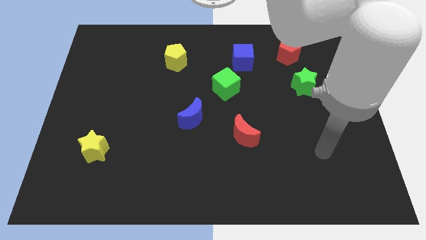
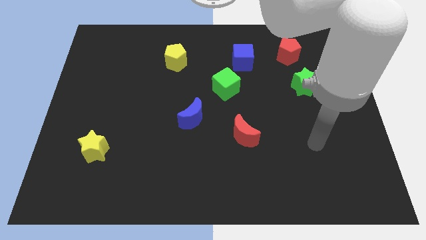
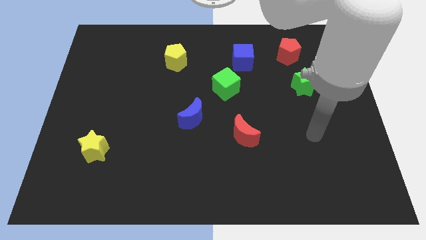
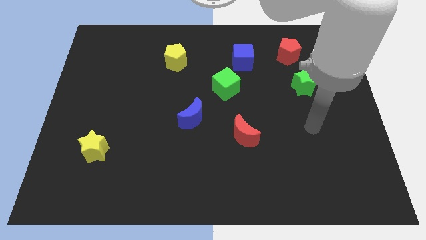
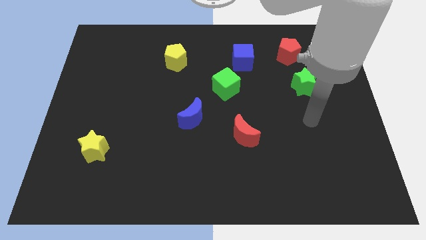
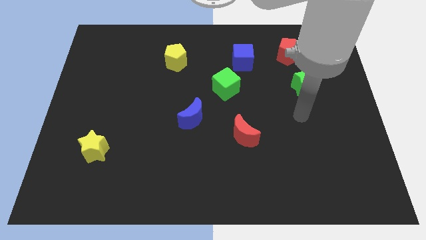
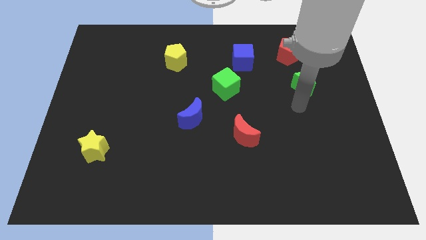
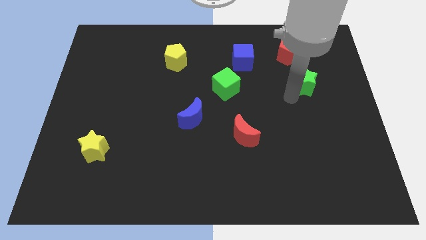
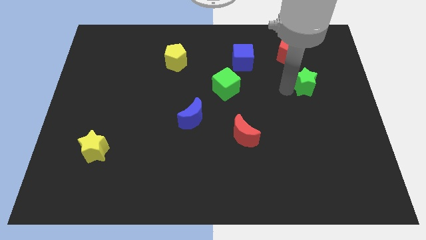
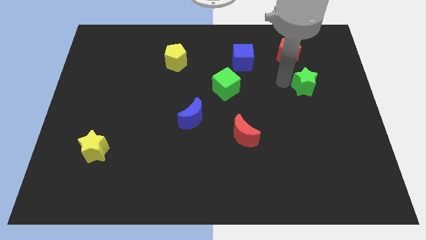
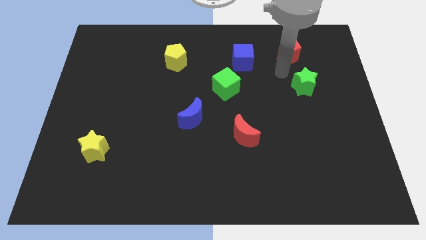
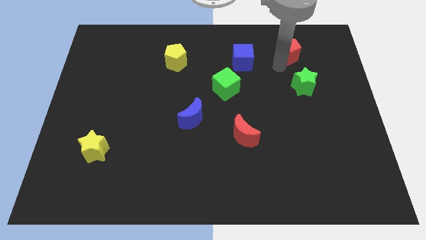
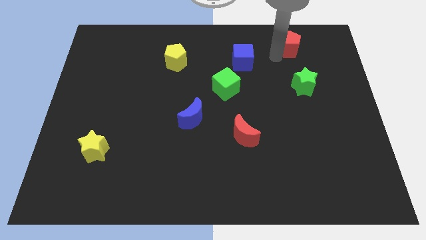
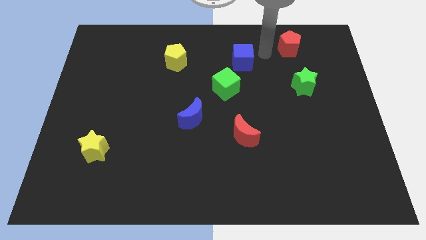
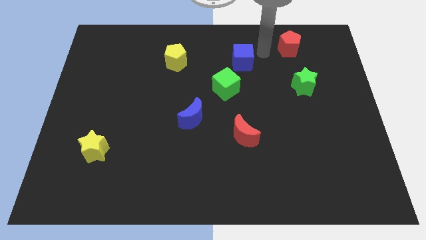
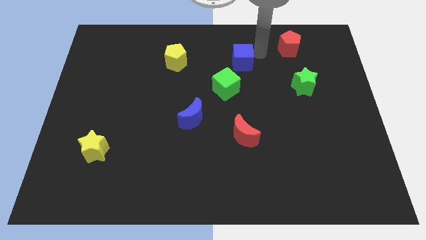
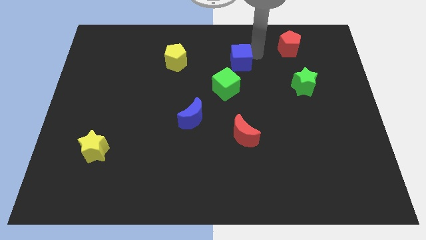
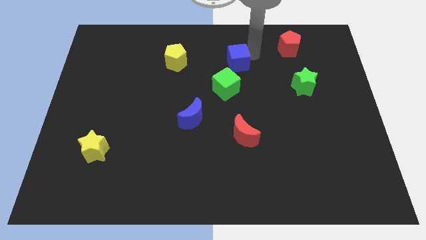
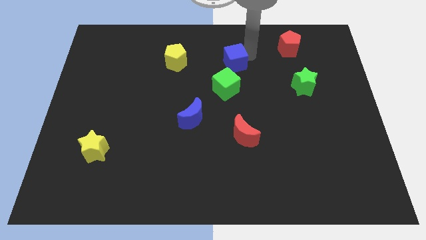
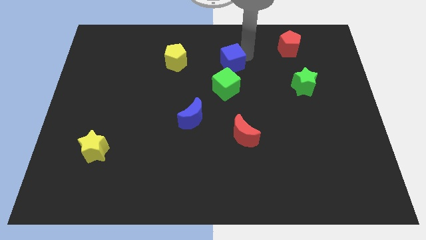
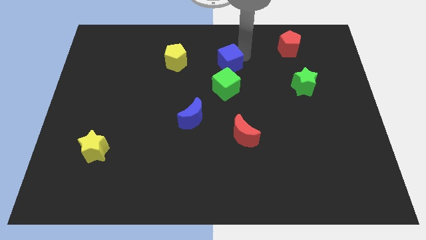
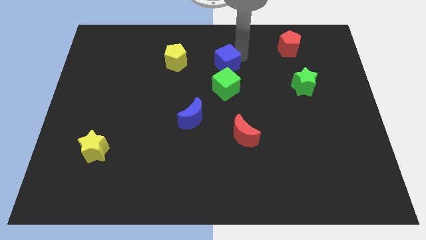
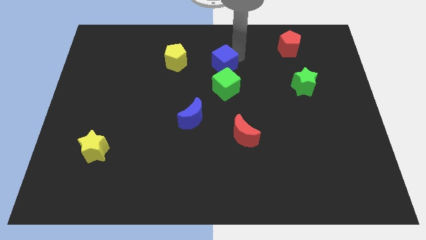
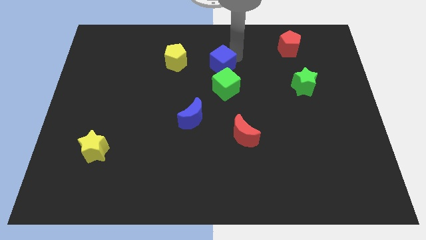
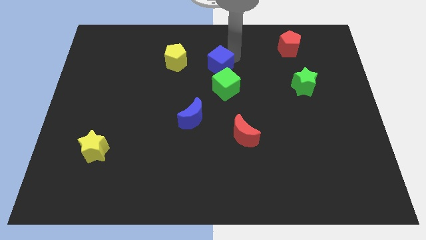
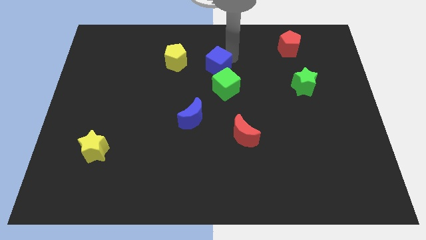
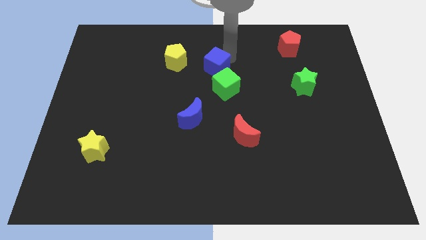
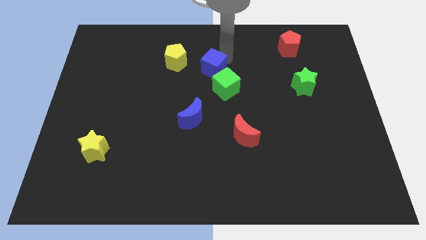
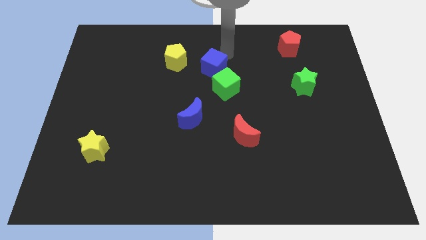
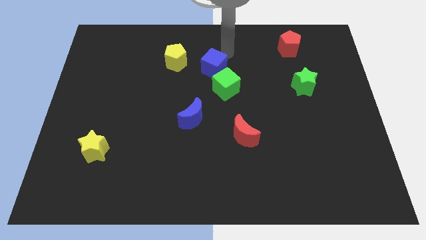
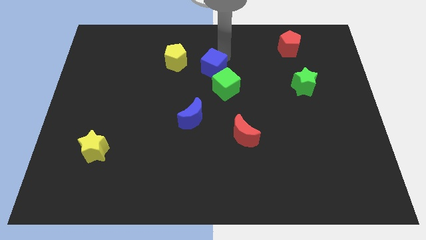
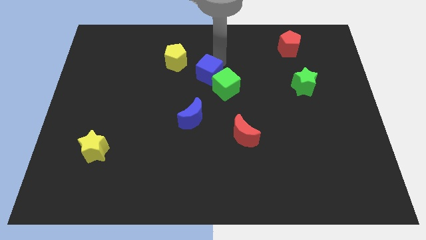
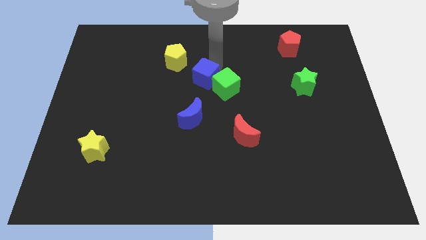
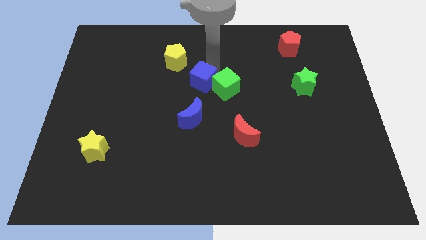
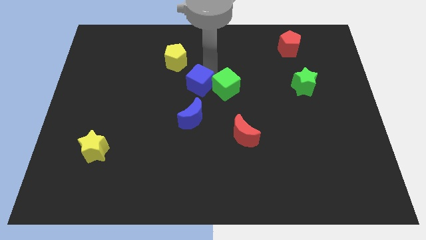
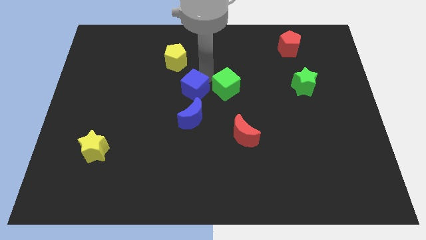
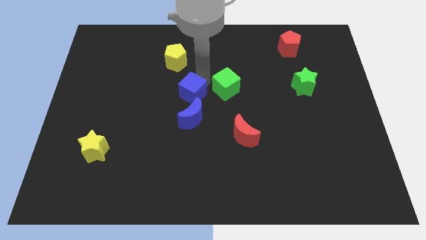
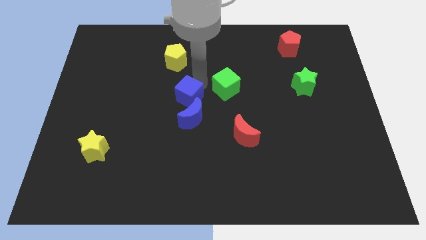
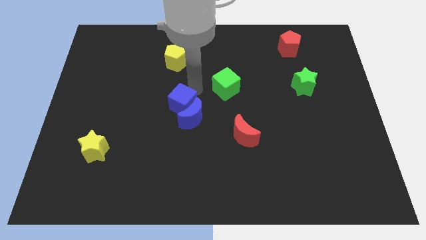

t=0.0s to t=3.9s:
move the blue cube downwards and then to the left

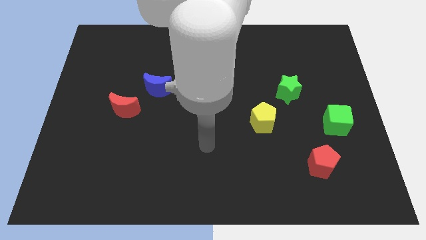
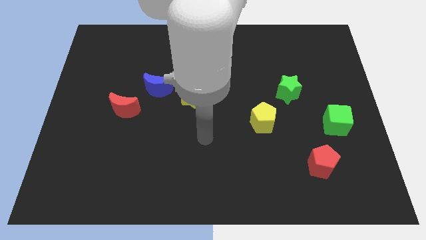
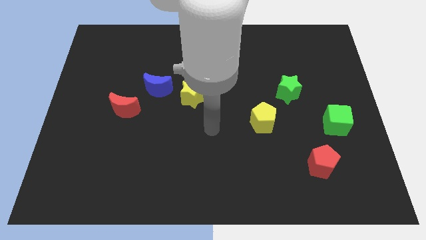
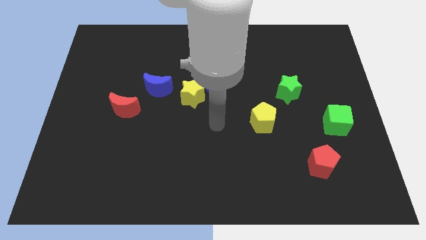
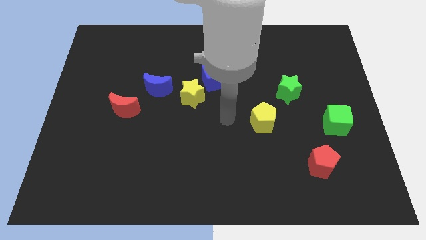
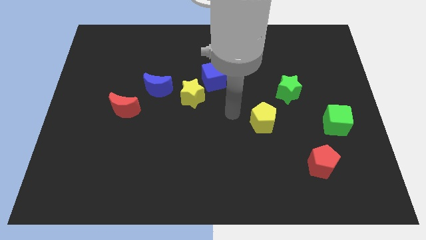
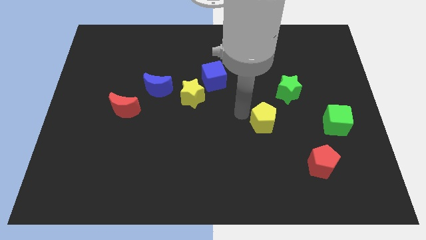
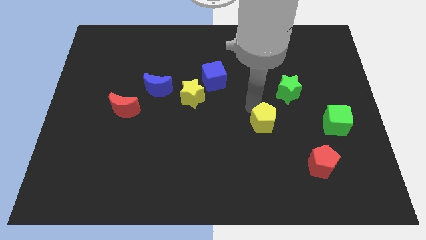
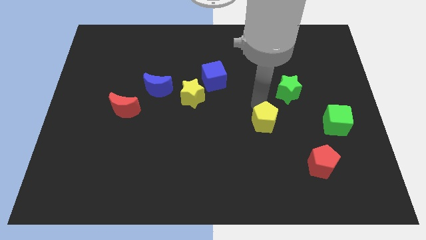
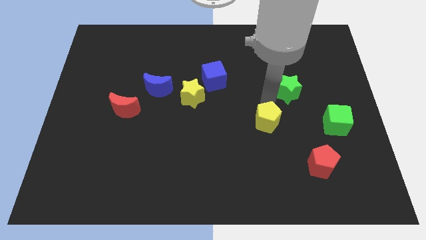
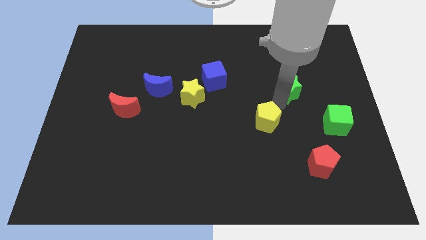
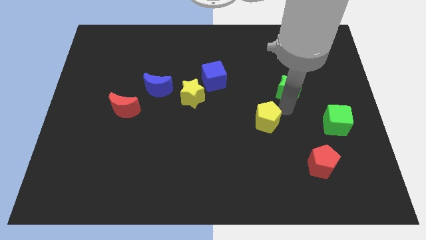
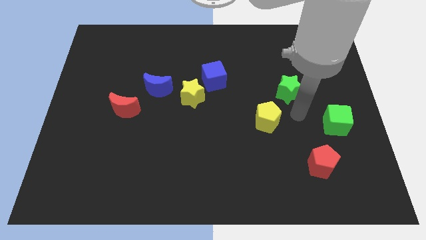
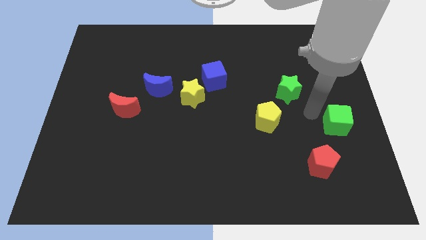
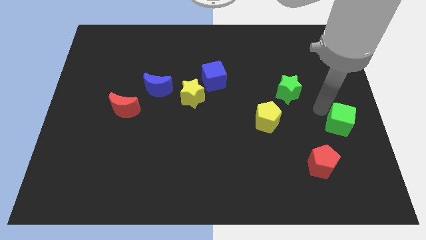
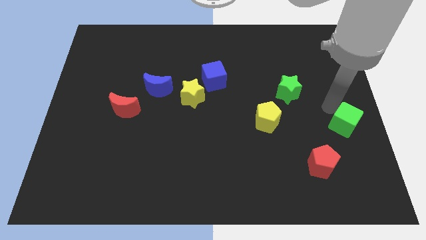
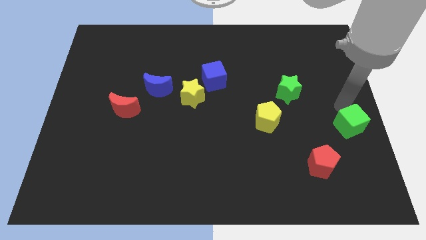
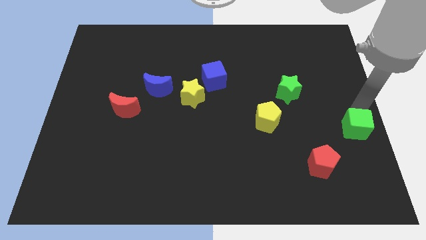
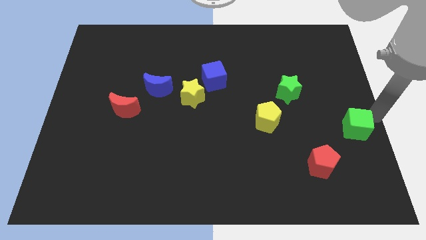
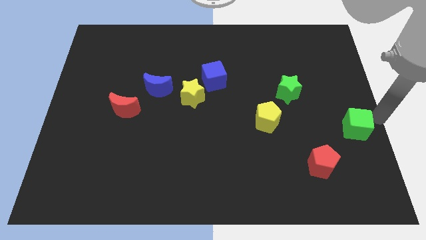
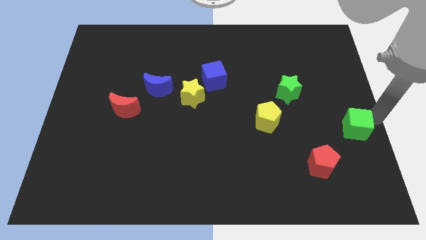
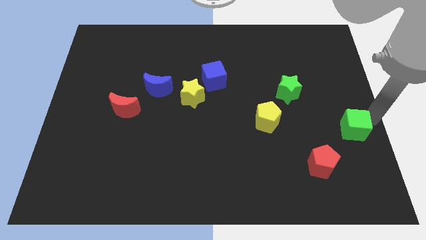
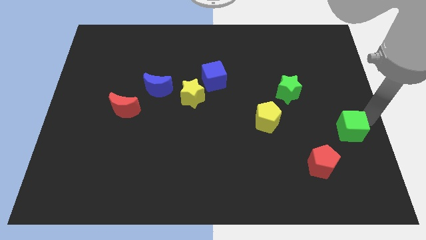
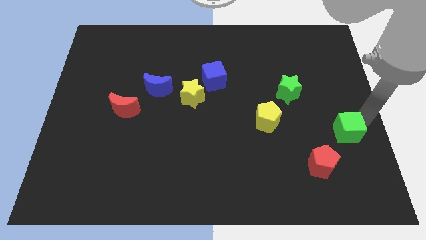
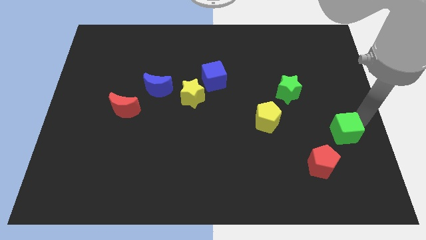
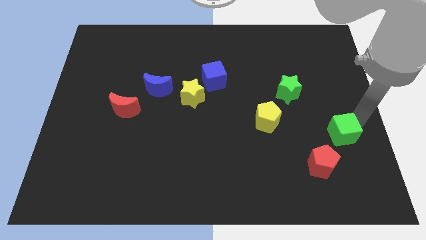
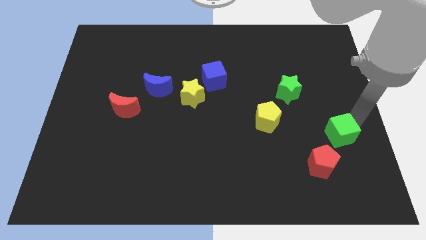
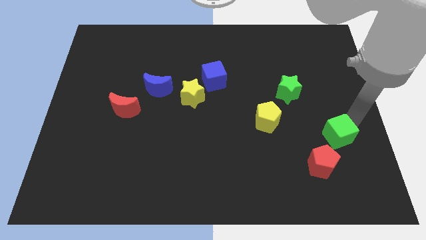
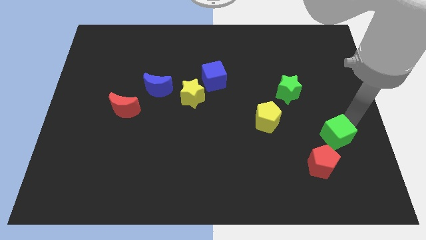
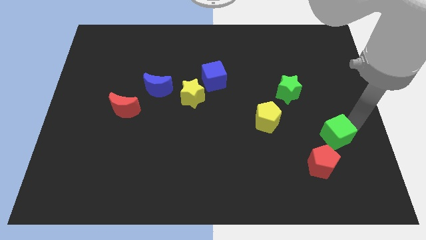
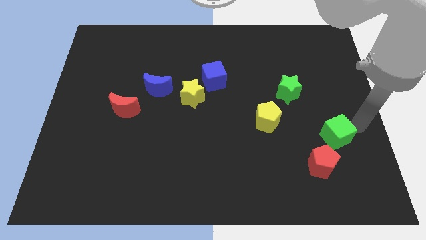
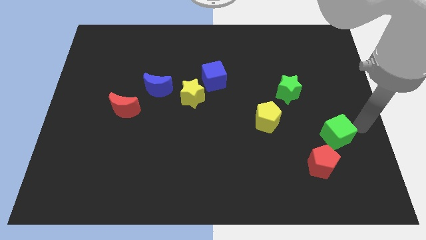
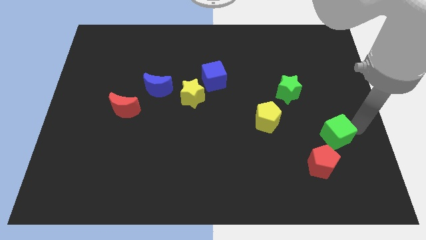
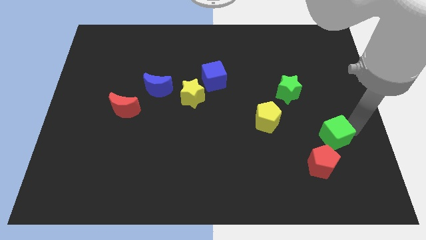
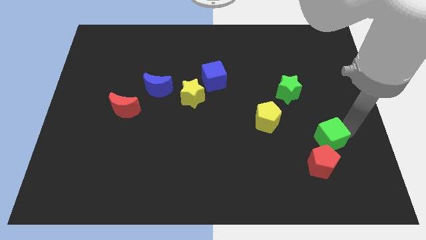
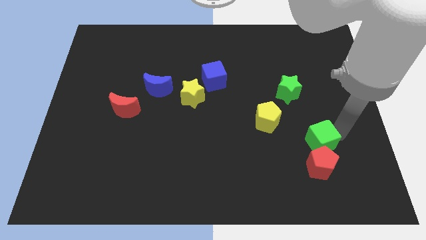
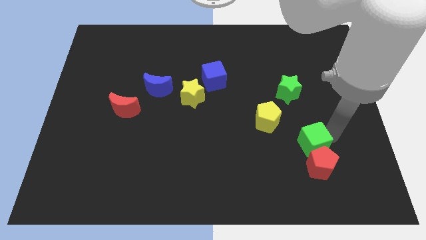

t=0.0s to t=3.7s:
slightly push the green cube down and then left

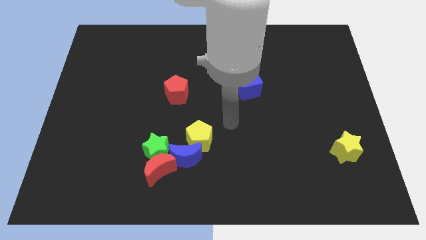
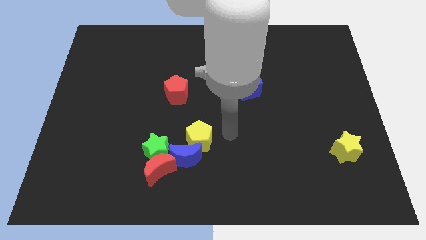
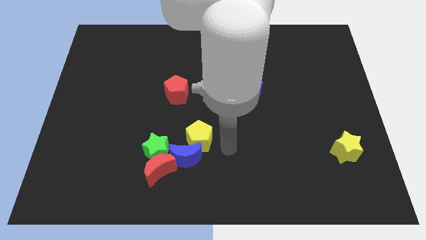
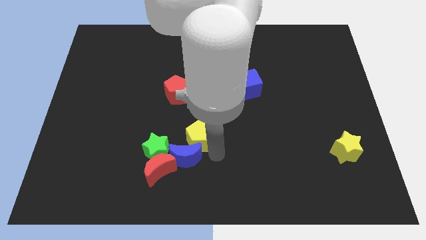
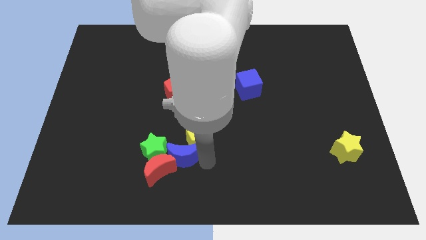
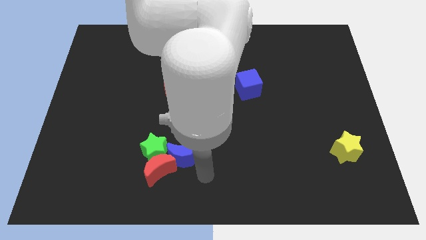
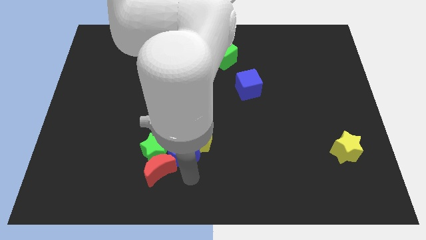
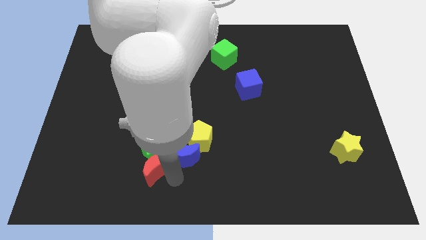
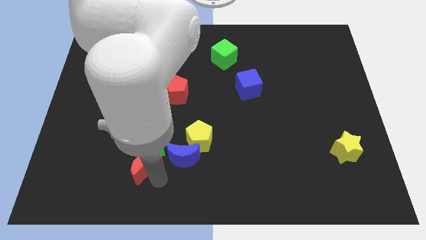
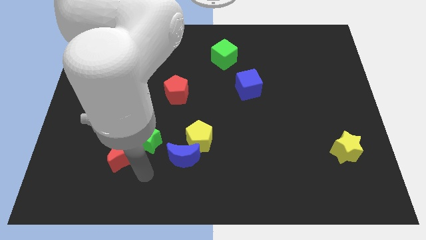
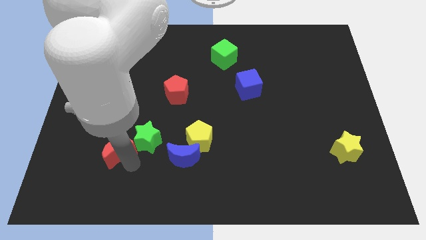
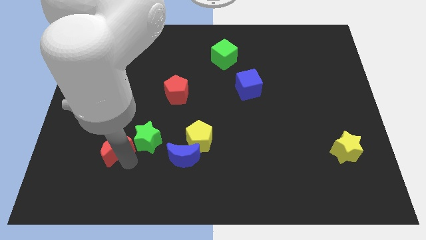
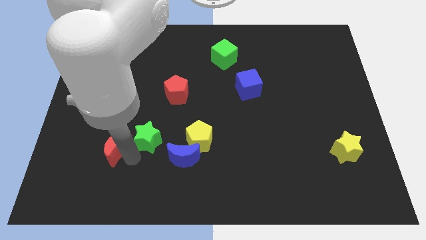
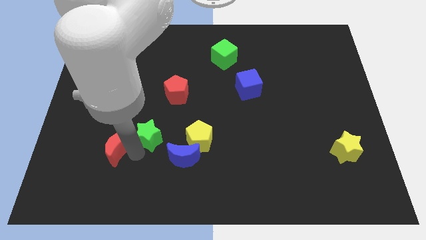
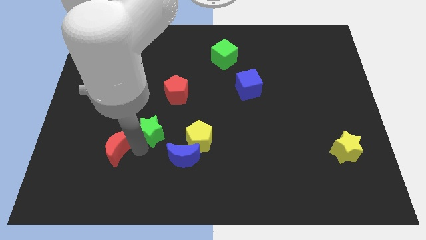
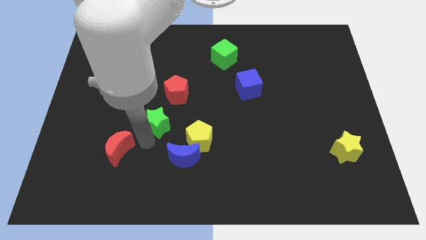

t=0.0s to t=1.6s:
slightly push the green star upwards
